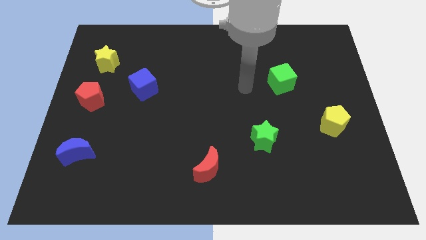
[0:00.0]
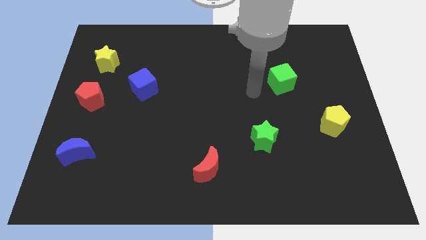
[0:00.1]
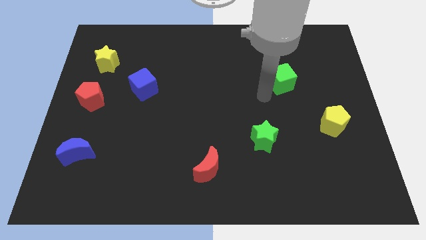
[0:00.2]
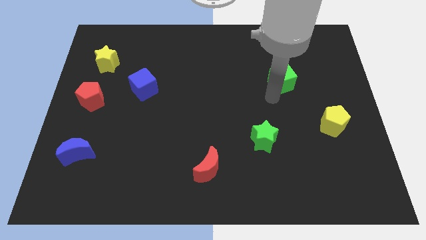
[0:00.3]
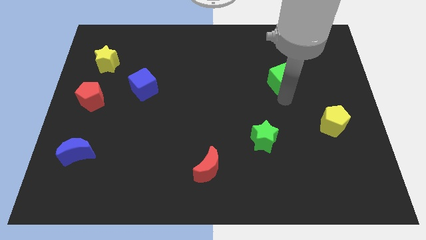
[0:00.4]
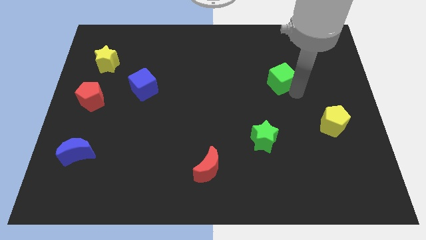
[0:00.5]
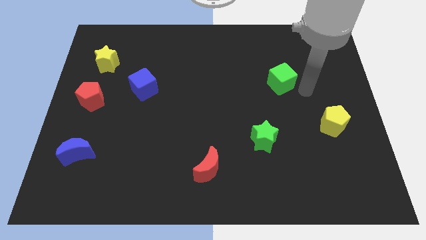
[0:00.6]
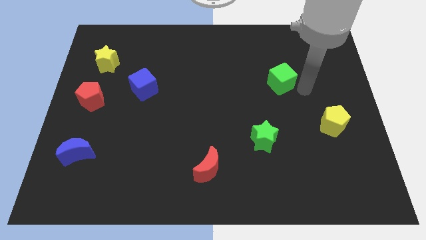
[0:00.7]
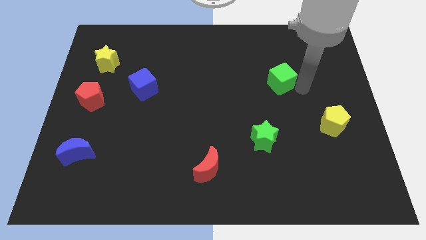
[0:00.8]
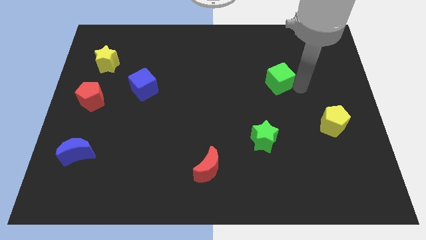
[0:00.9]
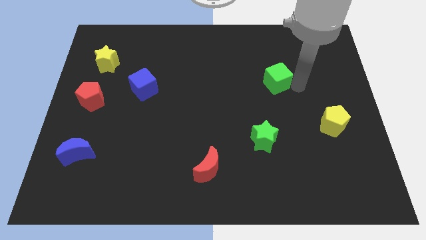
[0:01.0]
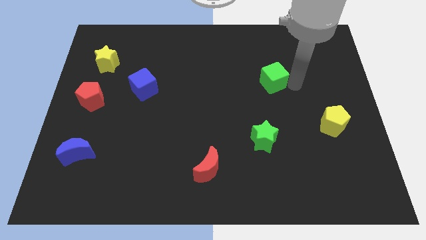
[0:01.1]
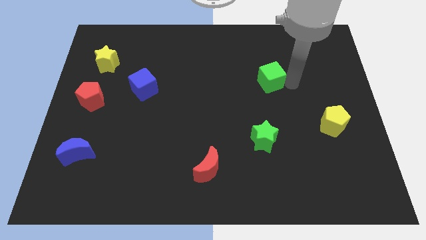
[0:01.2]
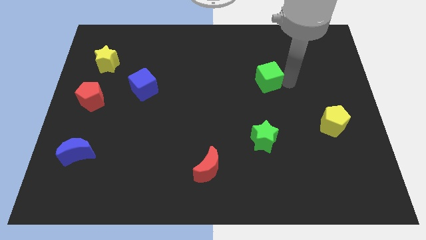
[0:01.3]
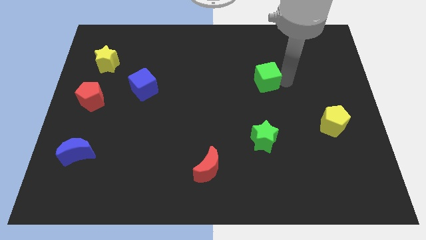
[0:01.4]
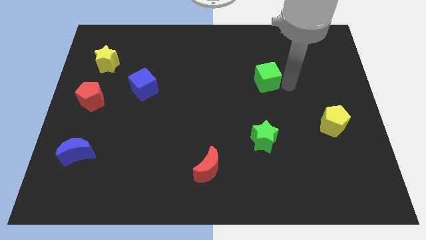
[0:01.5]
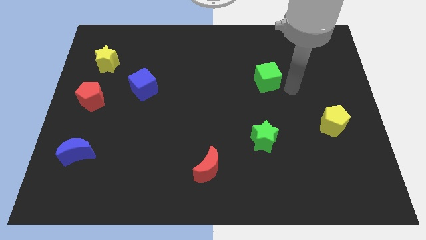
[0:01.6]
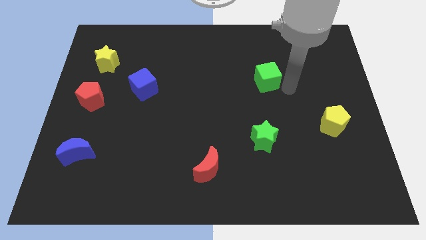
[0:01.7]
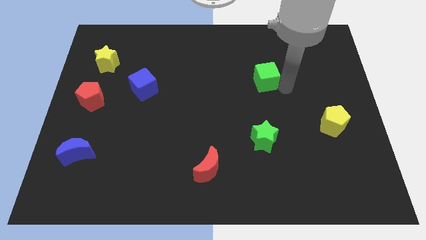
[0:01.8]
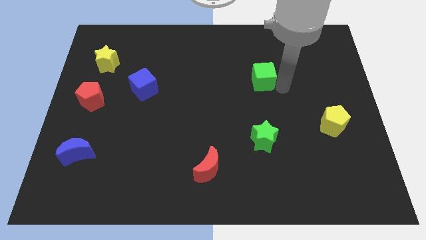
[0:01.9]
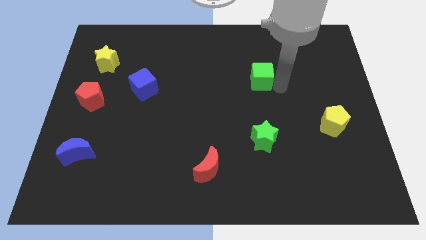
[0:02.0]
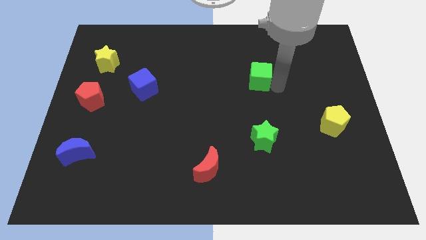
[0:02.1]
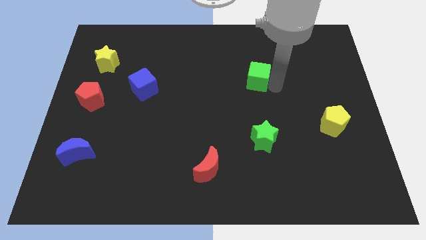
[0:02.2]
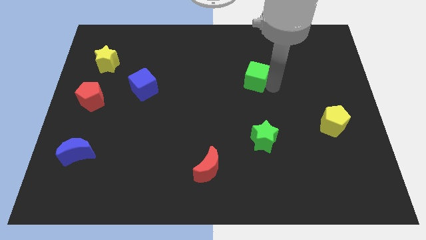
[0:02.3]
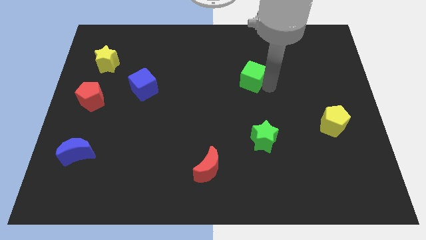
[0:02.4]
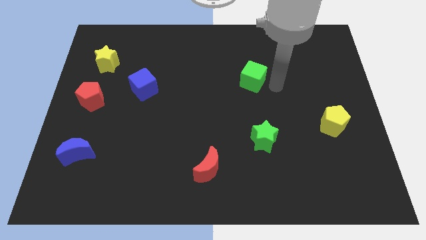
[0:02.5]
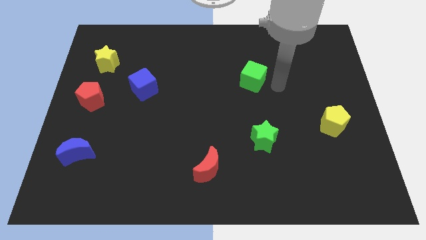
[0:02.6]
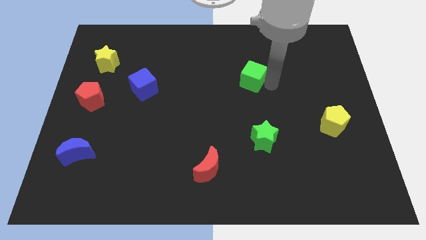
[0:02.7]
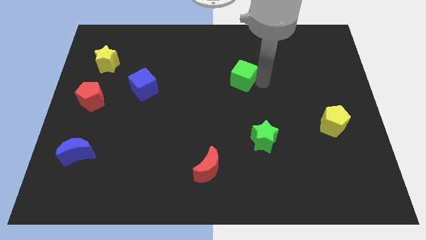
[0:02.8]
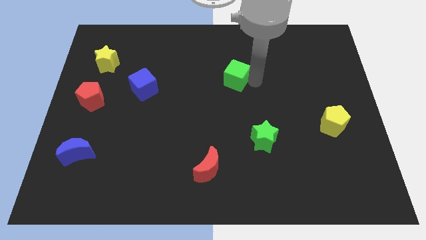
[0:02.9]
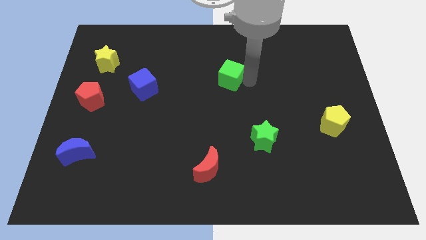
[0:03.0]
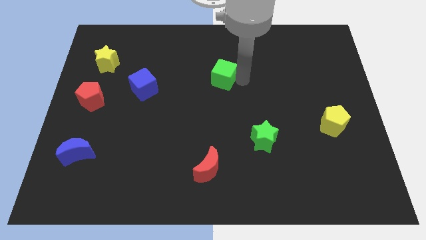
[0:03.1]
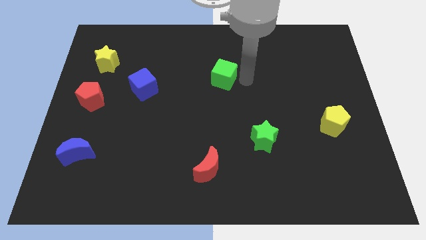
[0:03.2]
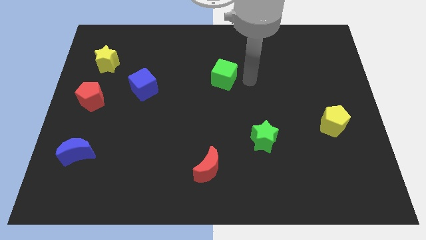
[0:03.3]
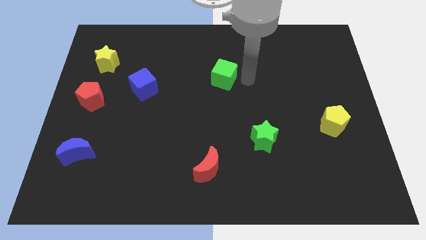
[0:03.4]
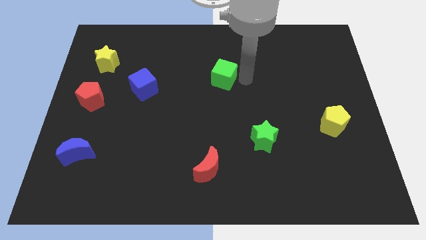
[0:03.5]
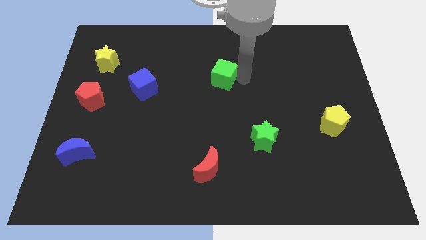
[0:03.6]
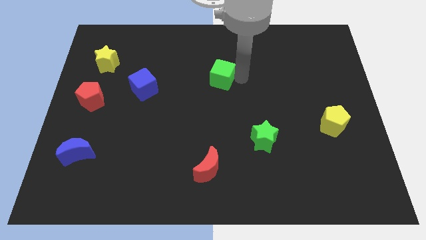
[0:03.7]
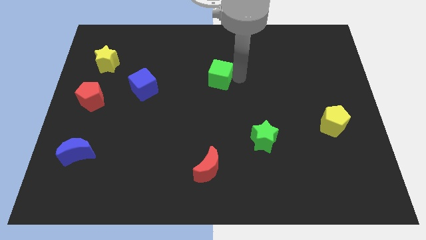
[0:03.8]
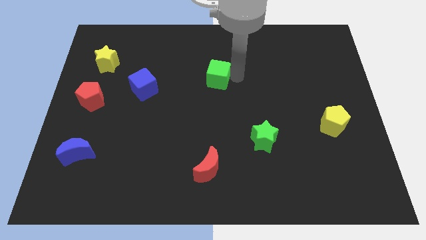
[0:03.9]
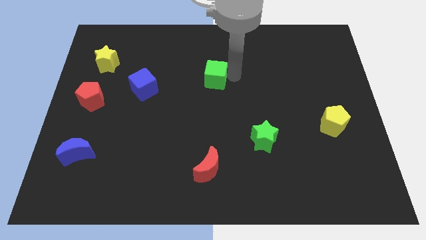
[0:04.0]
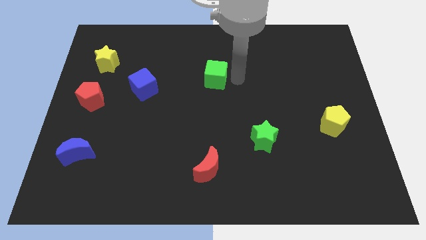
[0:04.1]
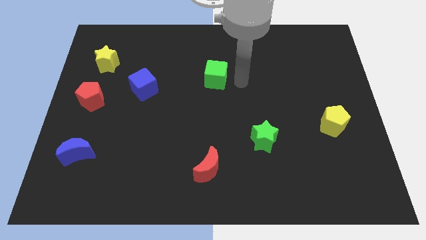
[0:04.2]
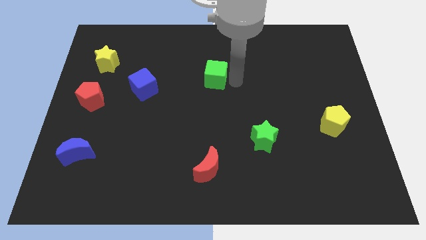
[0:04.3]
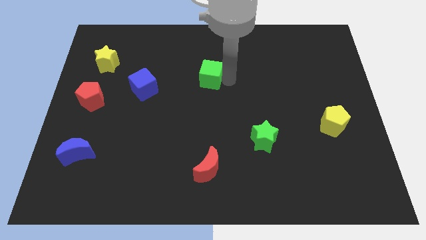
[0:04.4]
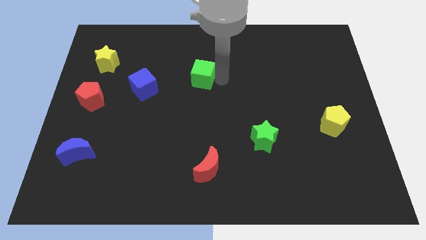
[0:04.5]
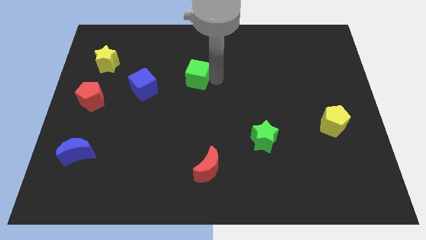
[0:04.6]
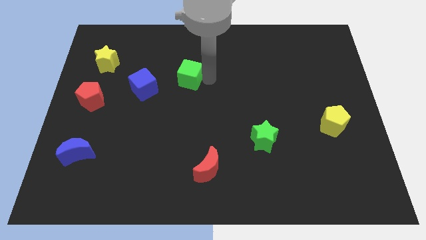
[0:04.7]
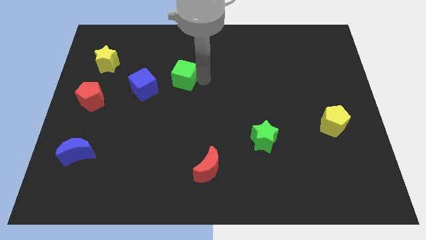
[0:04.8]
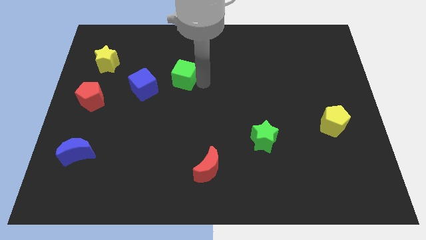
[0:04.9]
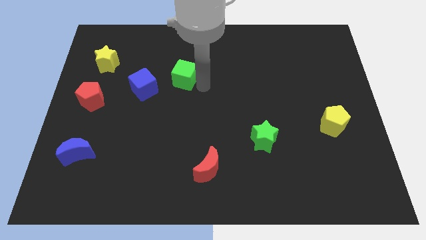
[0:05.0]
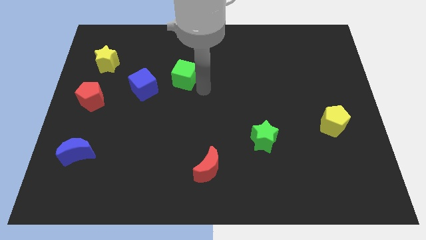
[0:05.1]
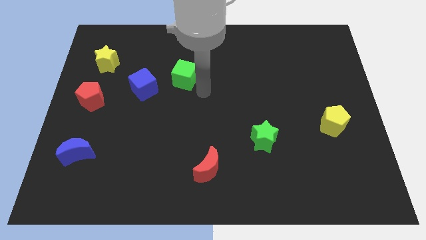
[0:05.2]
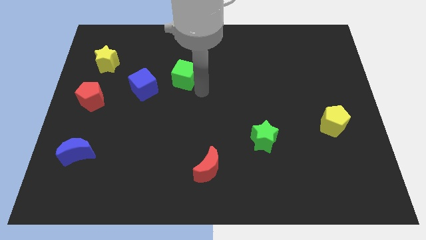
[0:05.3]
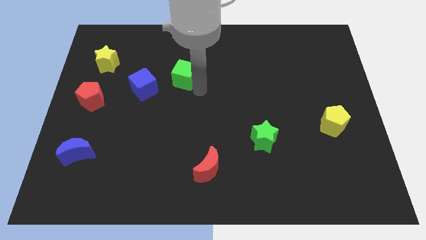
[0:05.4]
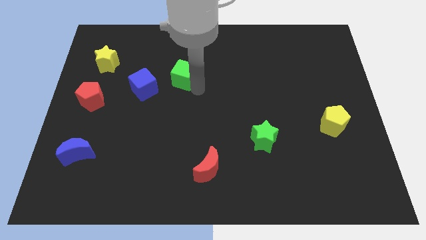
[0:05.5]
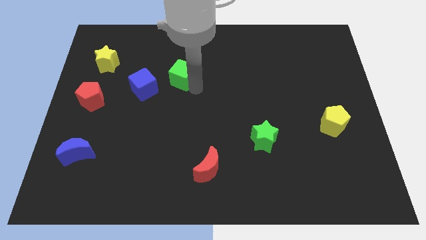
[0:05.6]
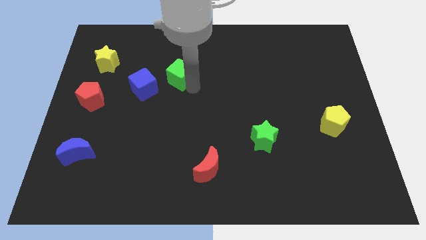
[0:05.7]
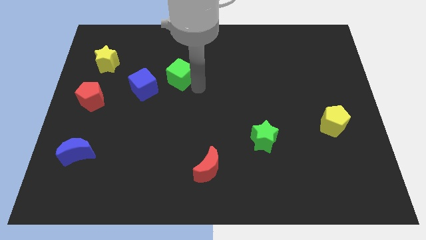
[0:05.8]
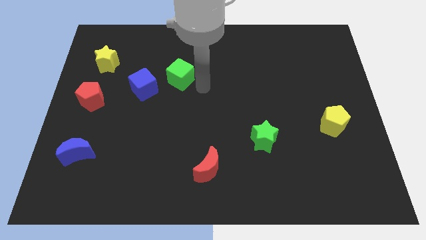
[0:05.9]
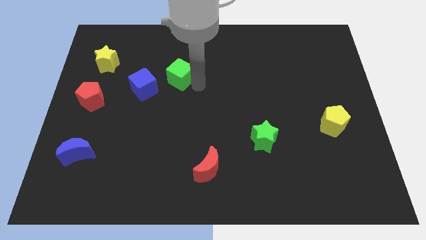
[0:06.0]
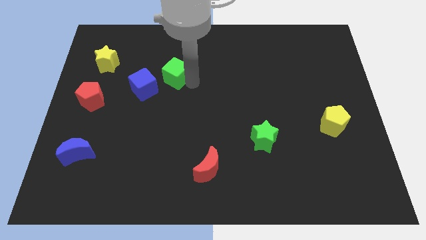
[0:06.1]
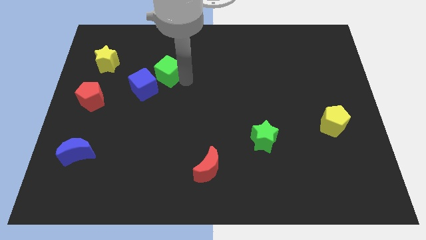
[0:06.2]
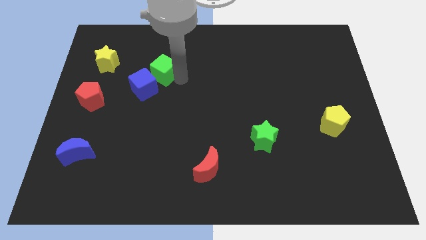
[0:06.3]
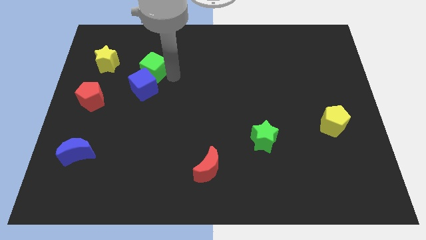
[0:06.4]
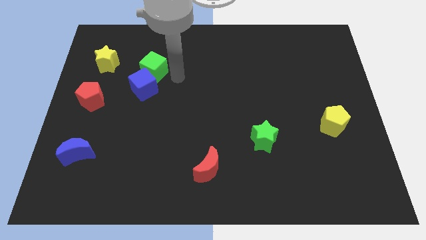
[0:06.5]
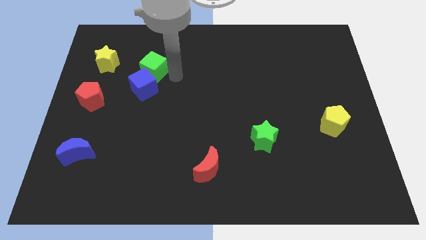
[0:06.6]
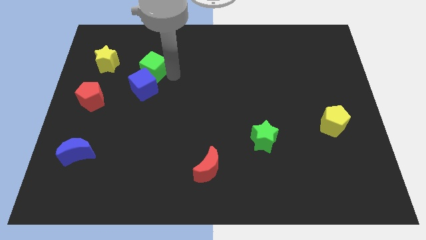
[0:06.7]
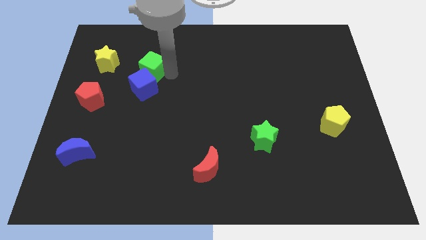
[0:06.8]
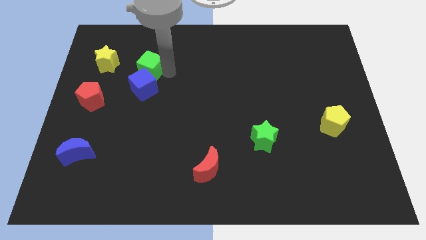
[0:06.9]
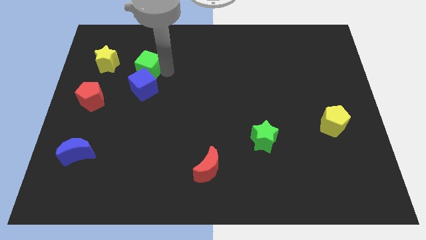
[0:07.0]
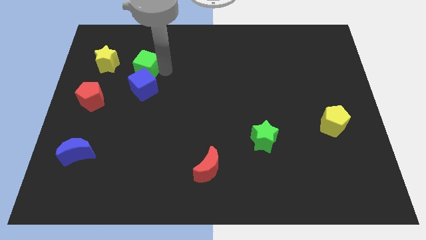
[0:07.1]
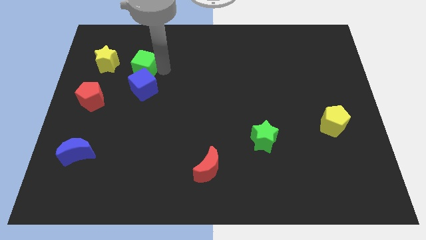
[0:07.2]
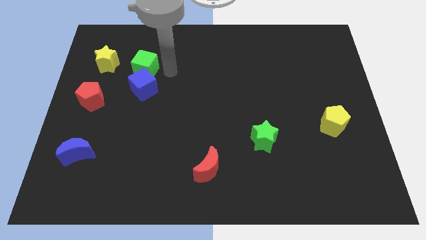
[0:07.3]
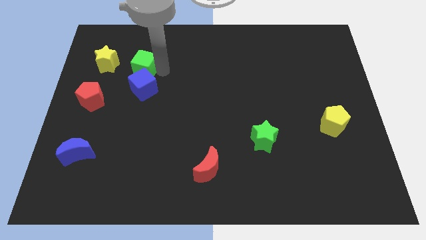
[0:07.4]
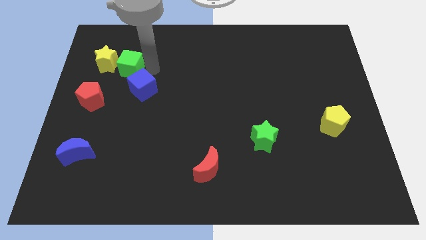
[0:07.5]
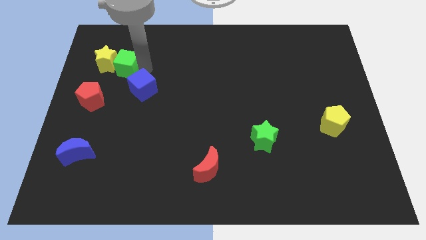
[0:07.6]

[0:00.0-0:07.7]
slide the green cube next to the yellow star
